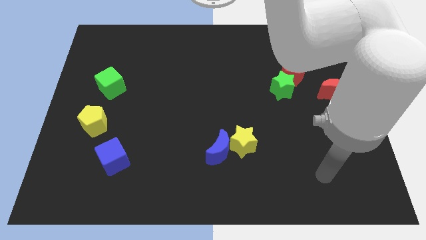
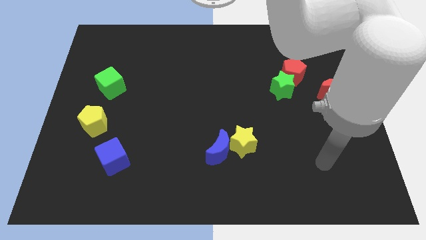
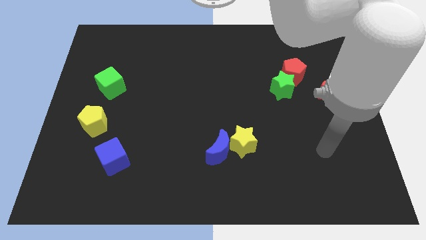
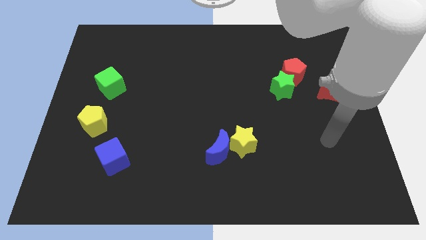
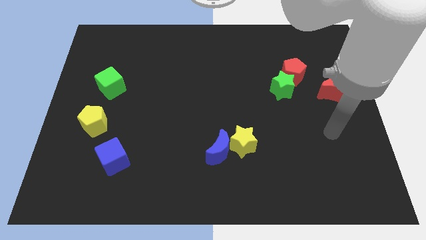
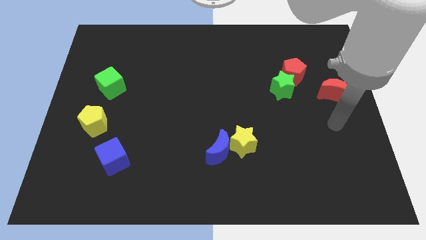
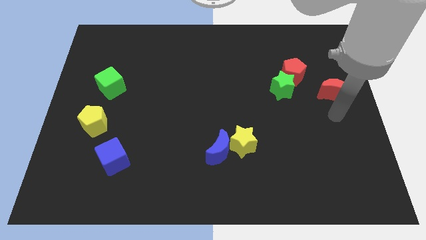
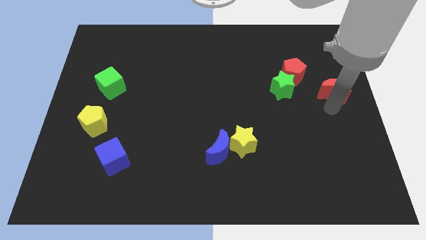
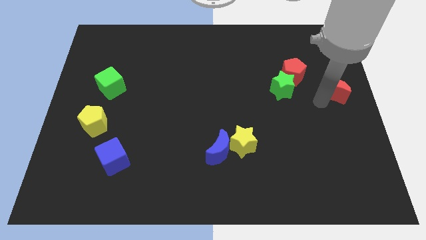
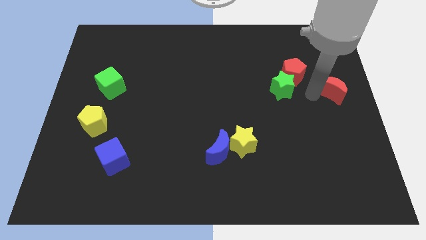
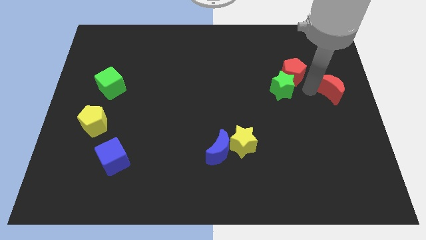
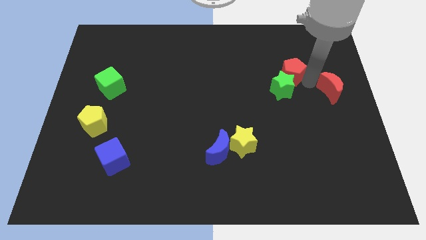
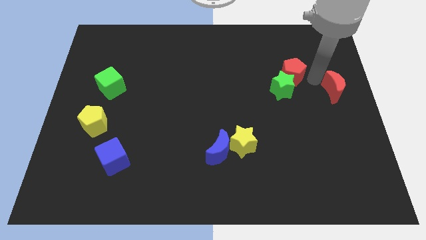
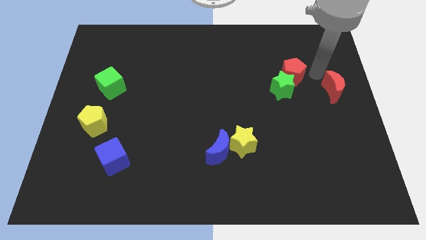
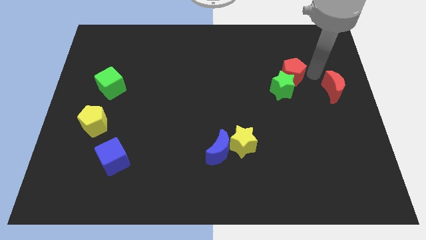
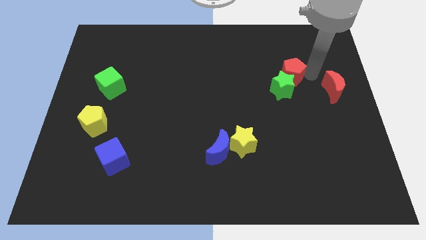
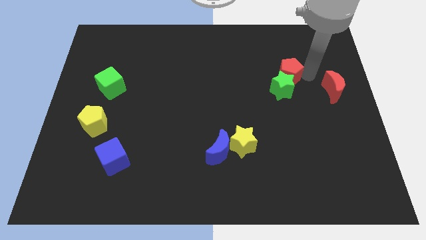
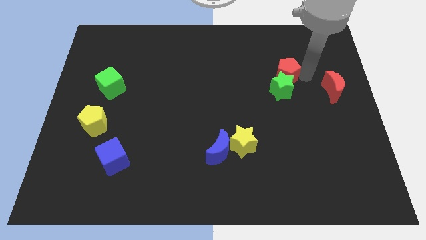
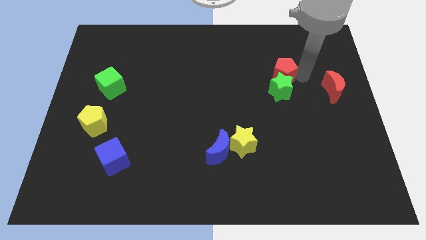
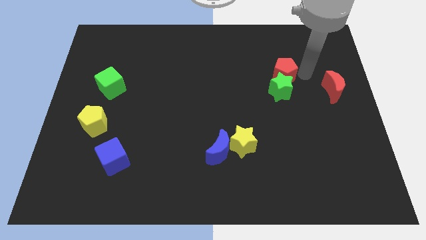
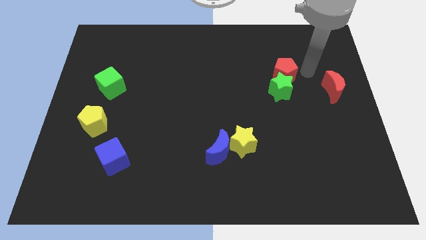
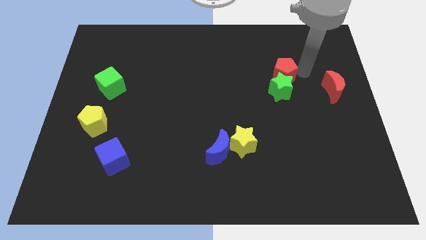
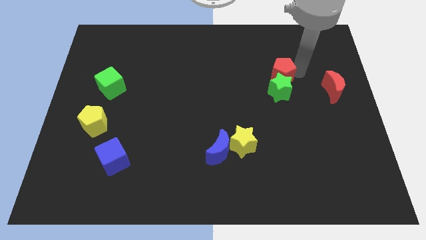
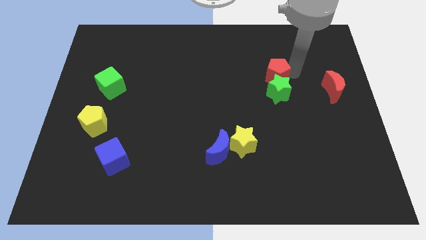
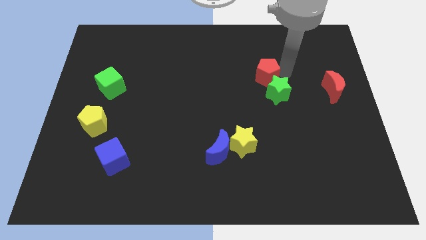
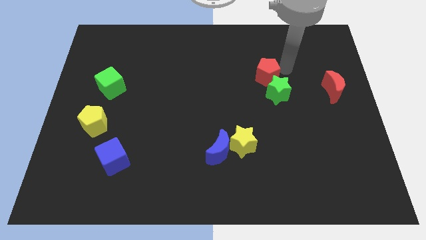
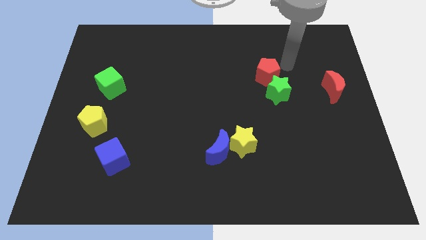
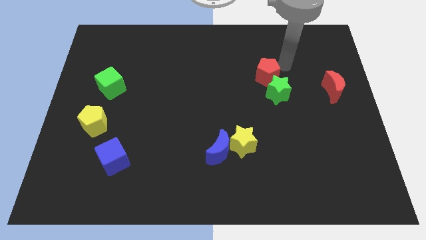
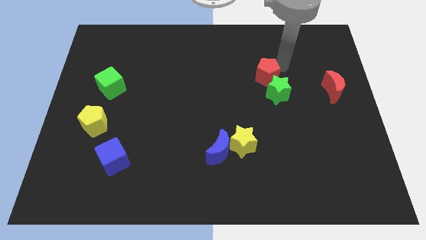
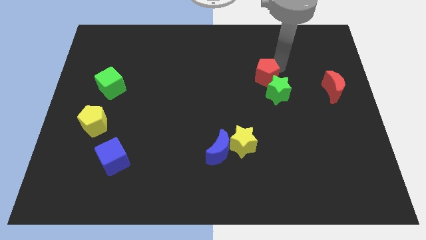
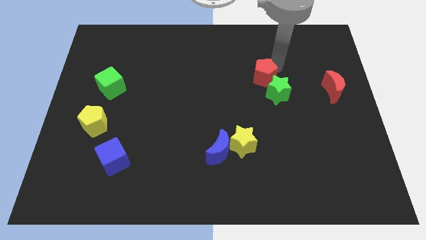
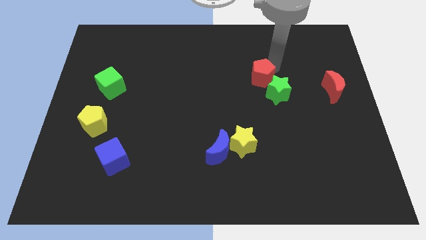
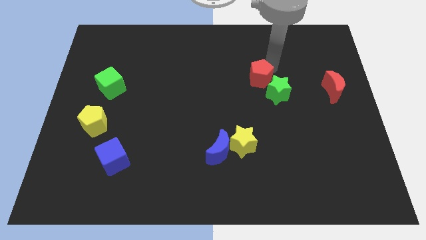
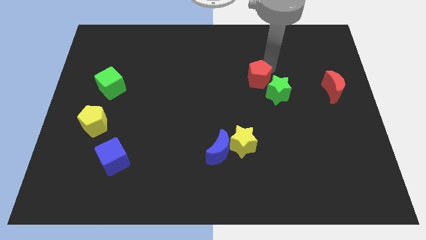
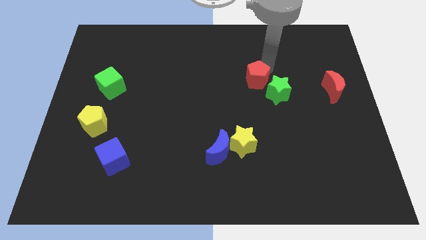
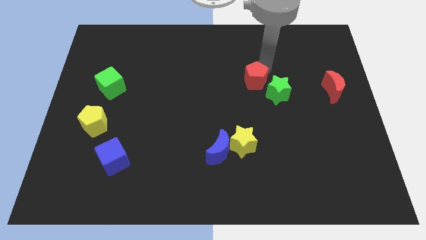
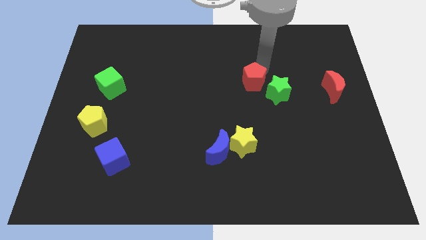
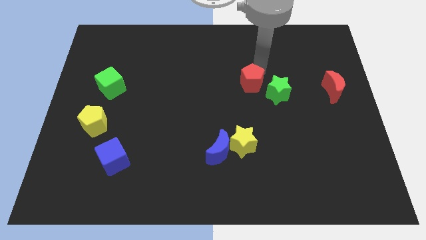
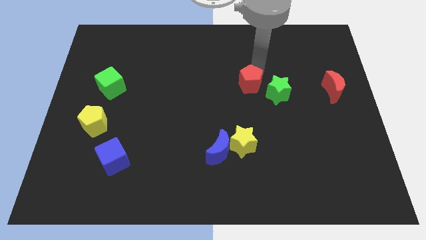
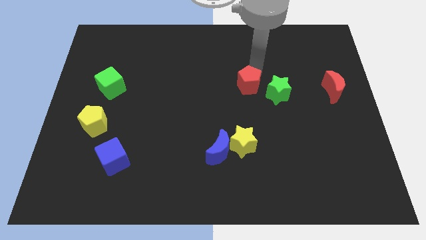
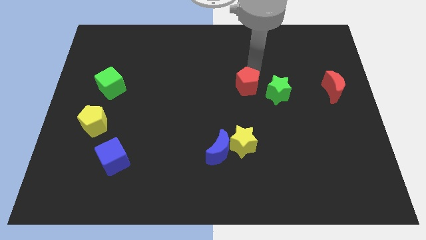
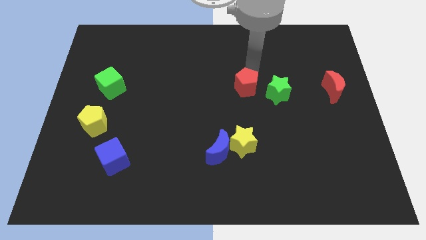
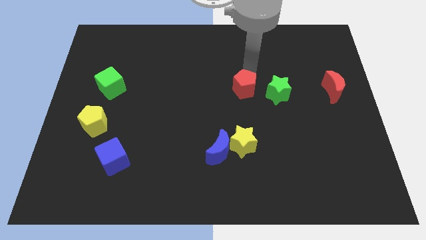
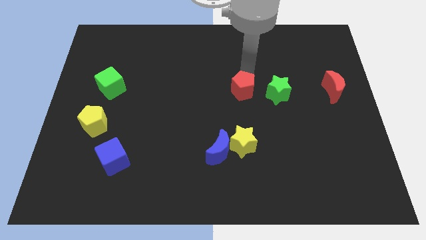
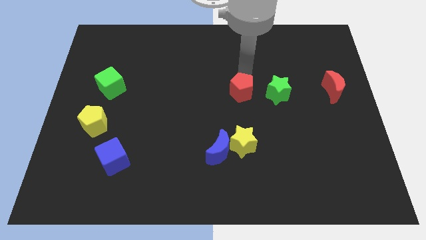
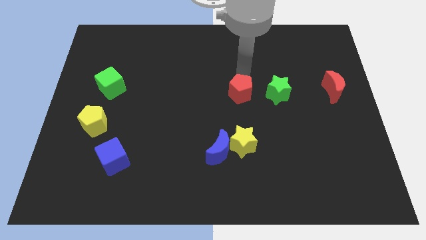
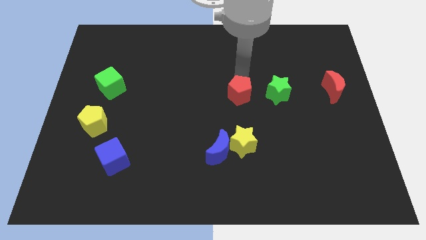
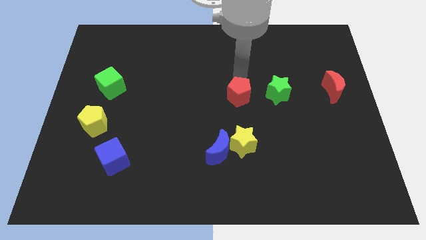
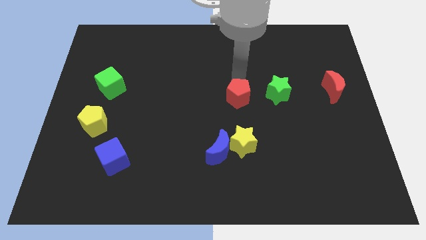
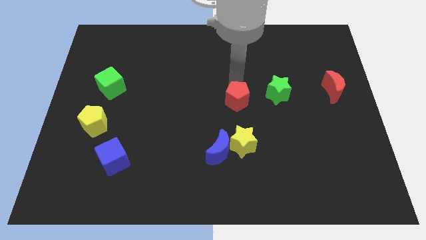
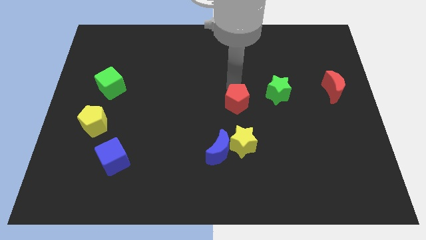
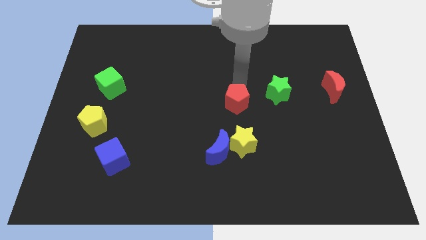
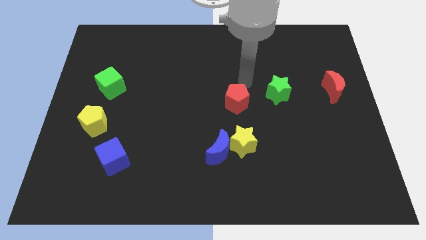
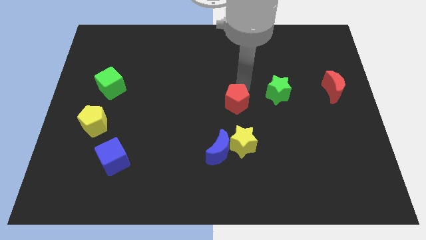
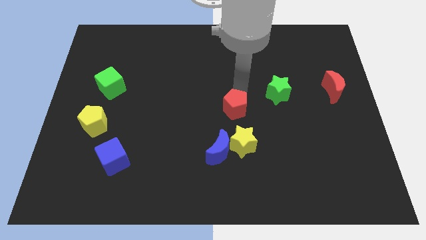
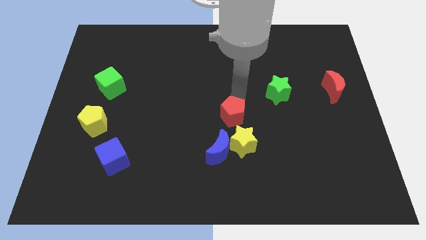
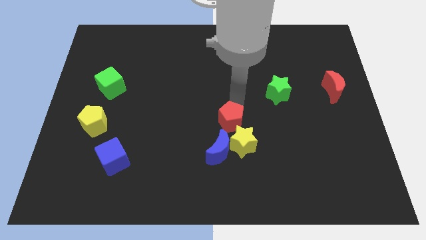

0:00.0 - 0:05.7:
push the red pentagon down and left

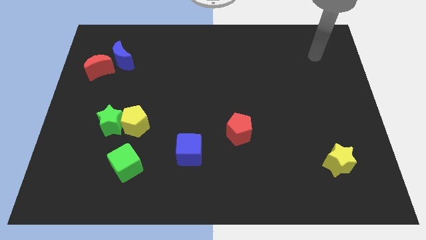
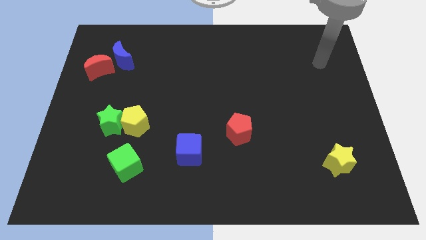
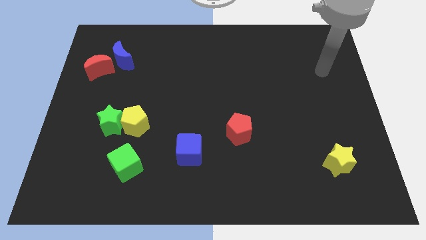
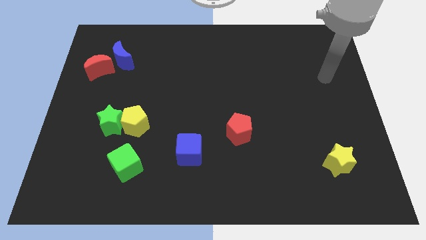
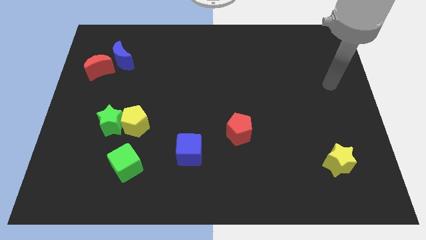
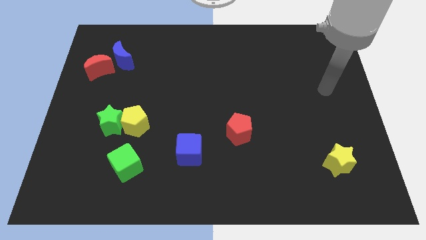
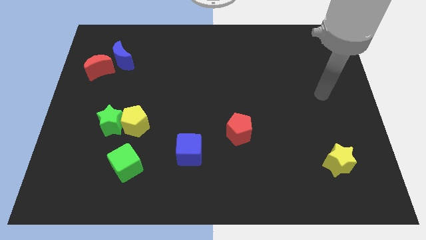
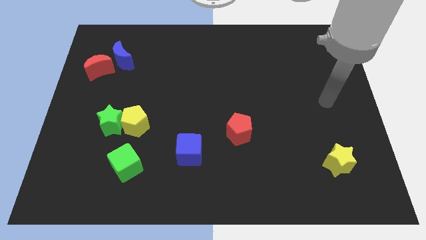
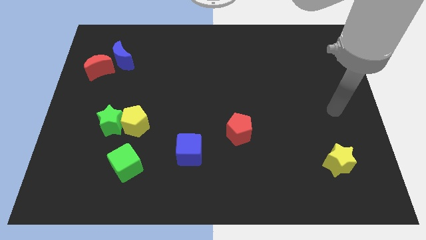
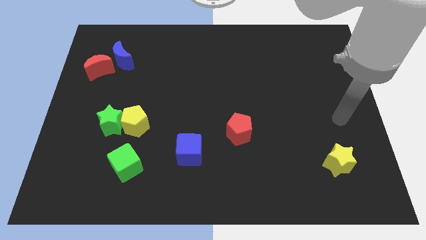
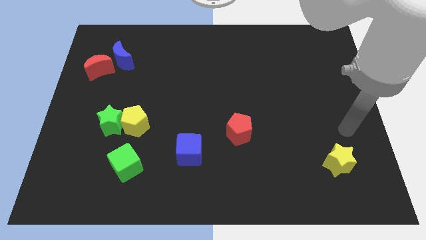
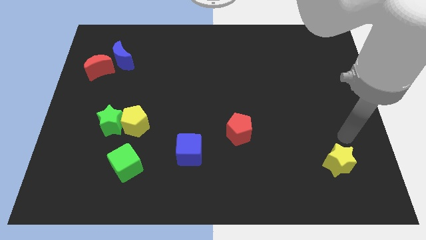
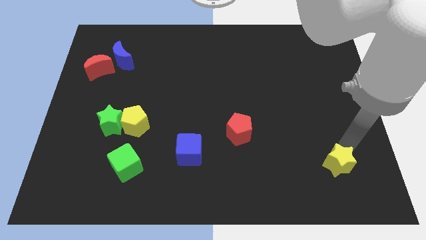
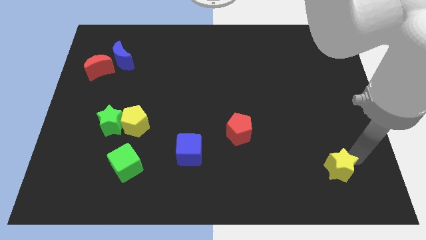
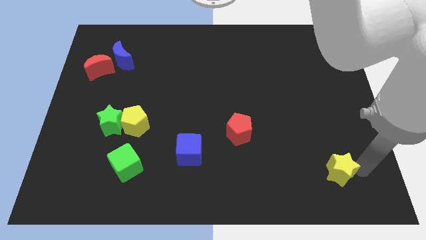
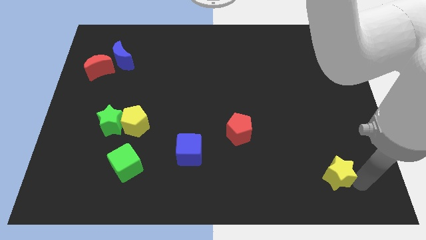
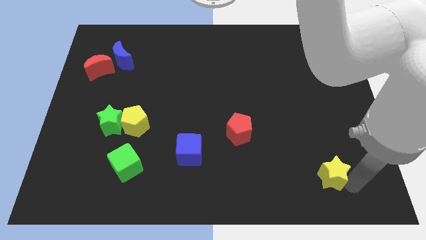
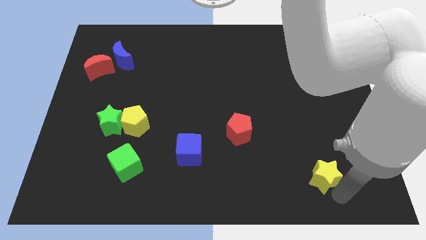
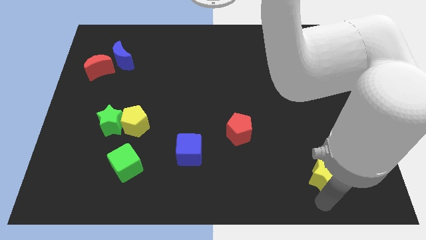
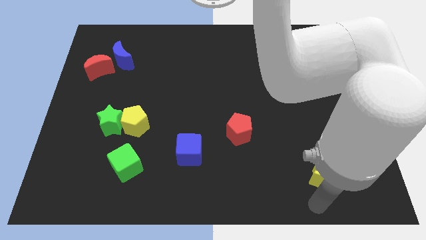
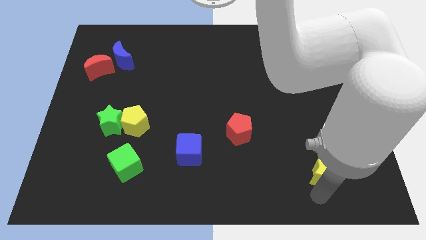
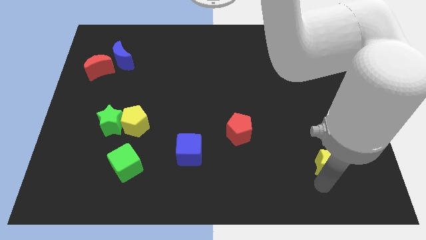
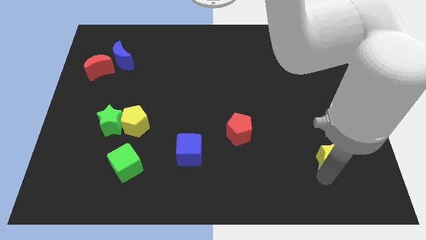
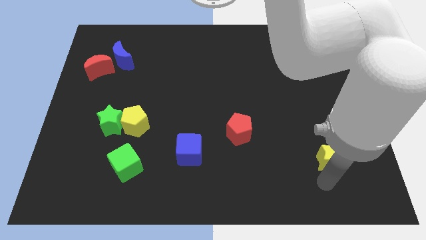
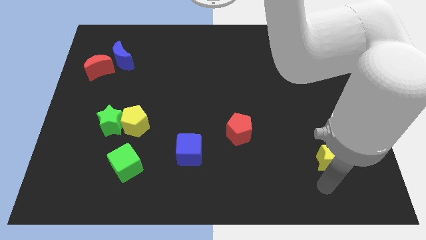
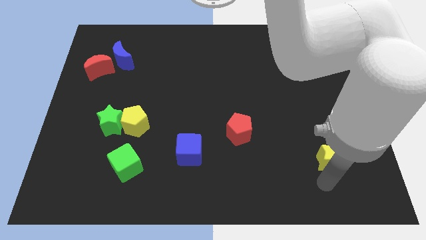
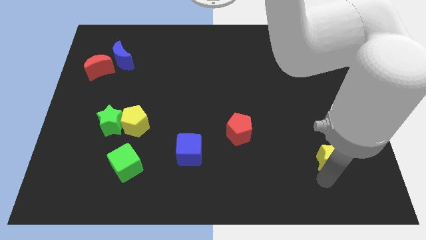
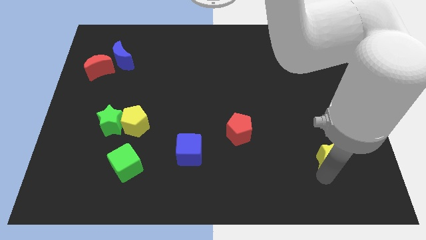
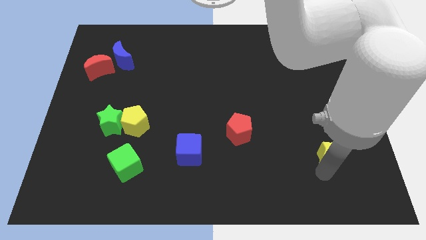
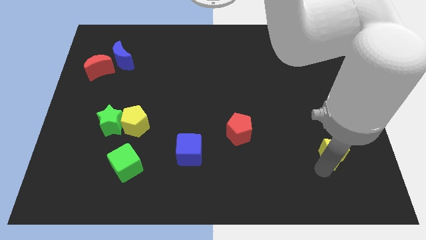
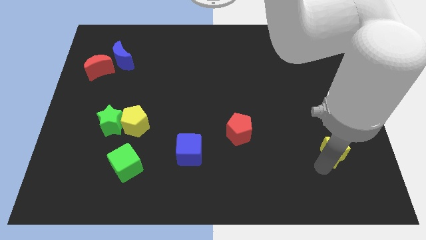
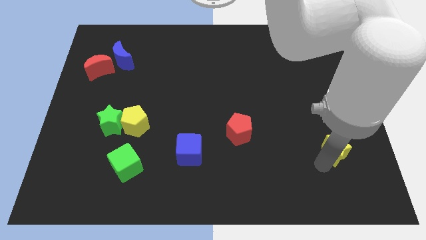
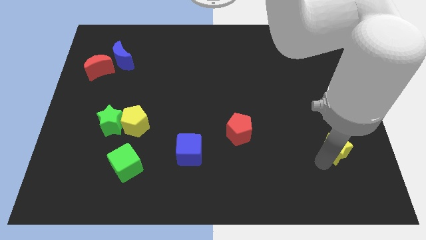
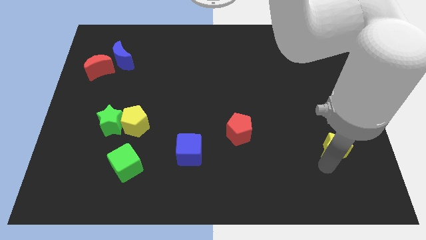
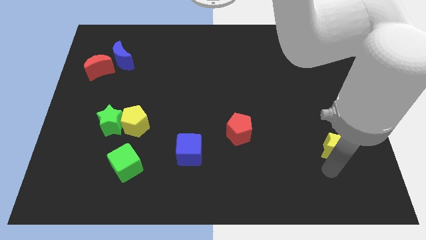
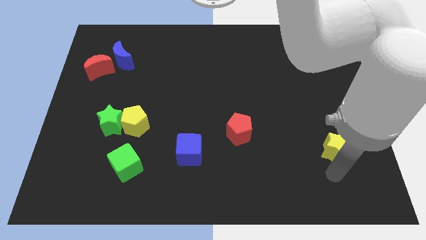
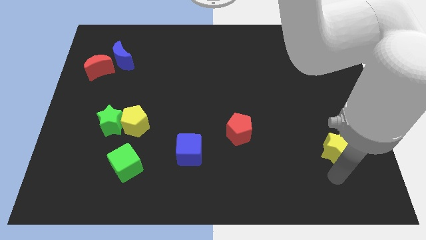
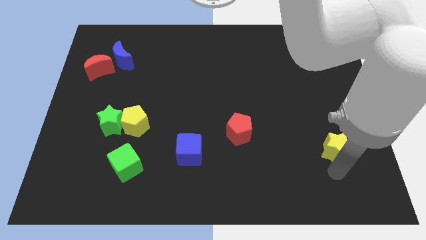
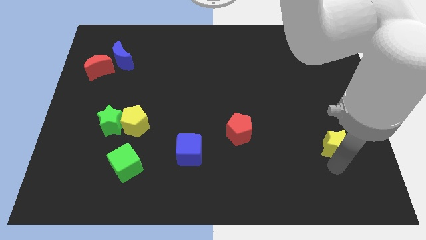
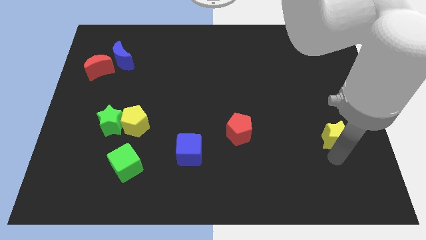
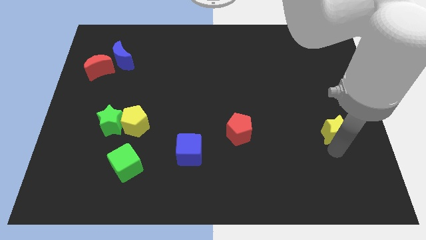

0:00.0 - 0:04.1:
slide the yellow star up a little
